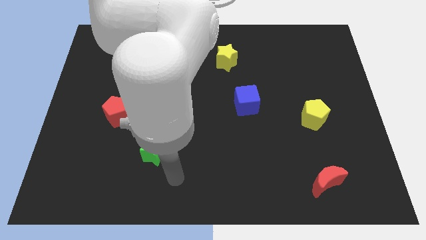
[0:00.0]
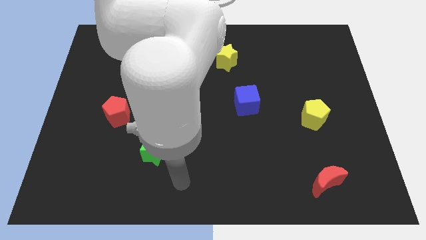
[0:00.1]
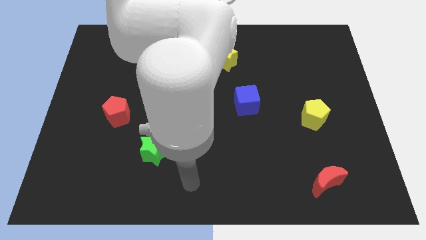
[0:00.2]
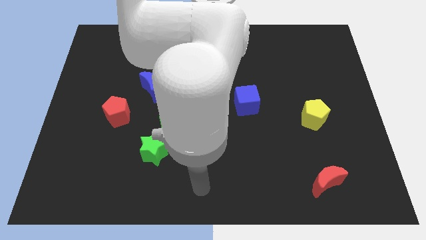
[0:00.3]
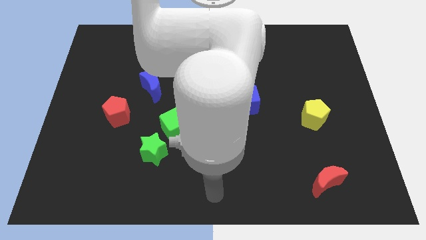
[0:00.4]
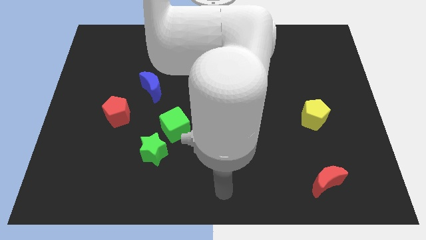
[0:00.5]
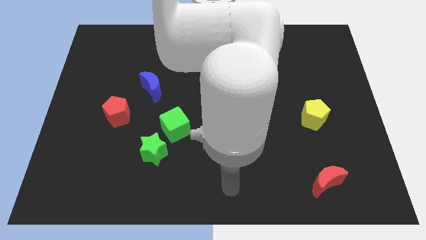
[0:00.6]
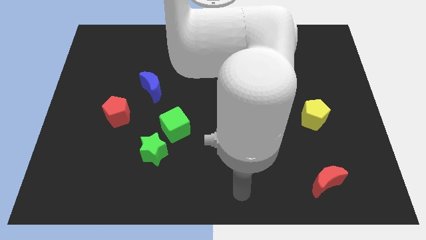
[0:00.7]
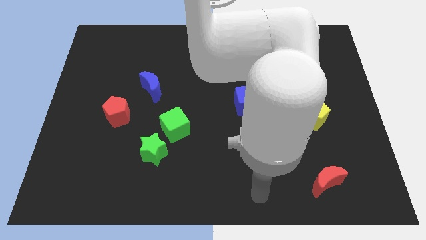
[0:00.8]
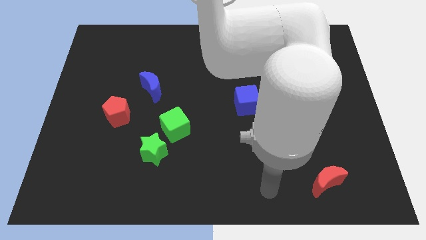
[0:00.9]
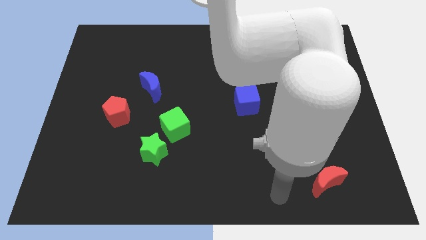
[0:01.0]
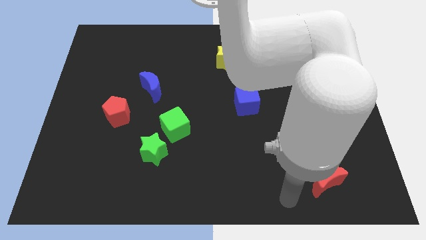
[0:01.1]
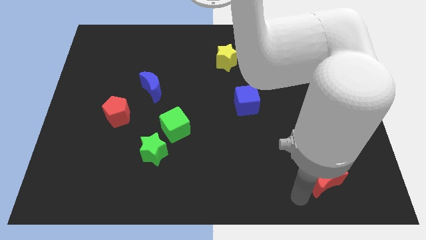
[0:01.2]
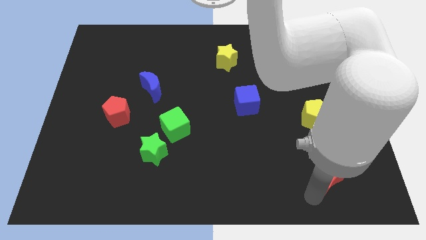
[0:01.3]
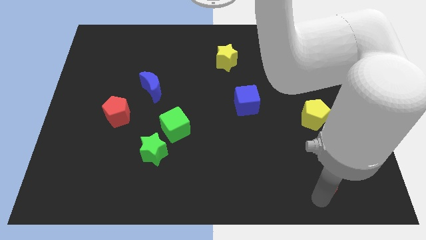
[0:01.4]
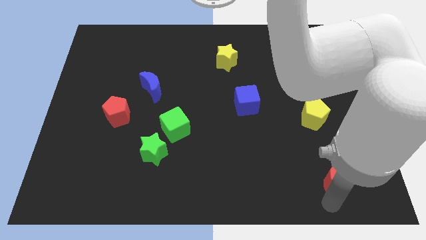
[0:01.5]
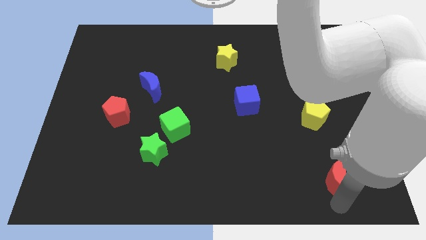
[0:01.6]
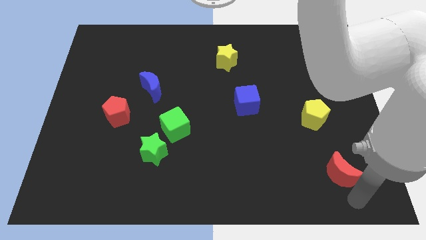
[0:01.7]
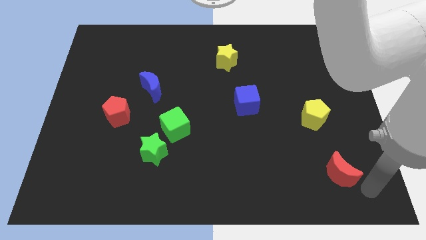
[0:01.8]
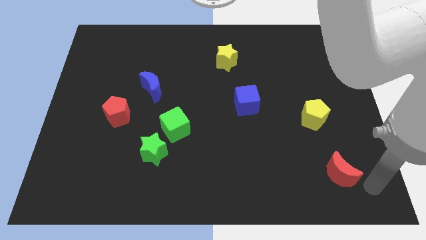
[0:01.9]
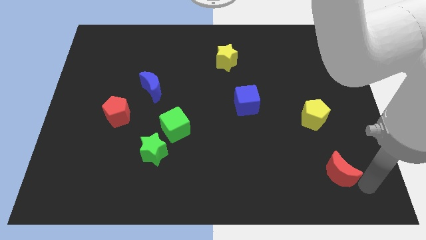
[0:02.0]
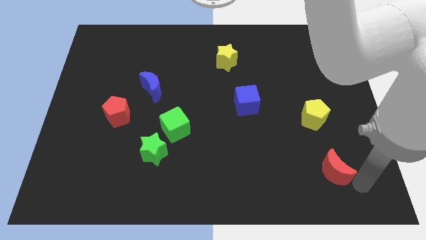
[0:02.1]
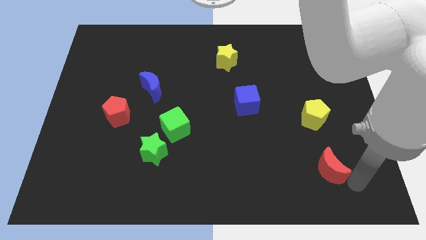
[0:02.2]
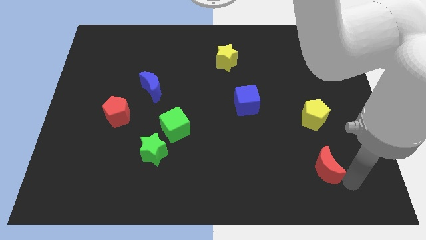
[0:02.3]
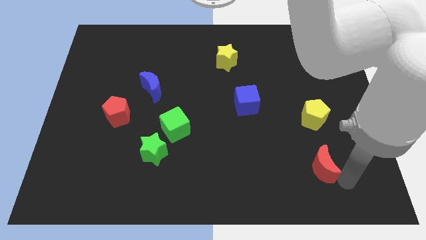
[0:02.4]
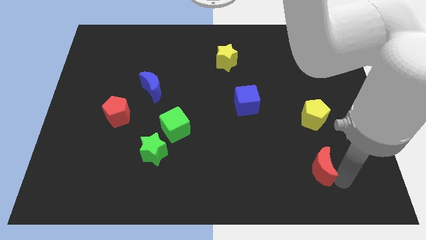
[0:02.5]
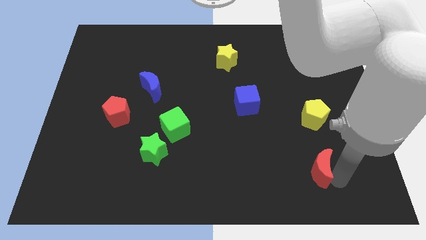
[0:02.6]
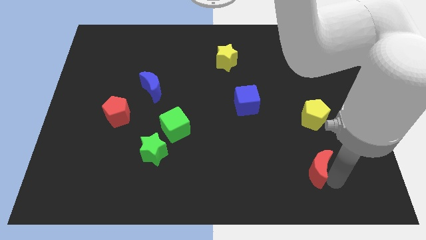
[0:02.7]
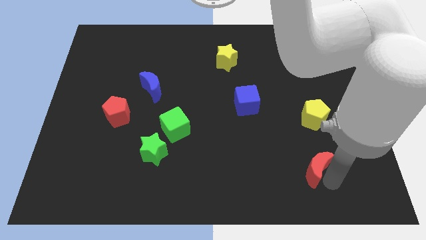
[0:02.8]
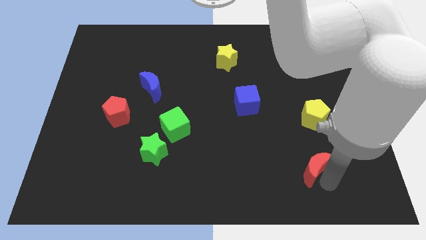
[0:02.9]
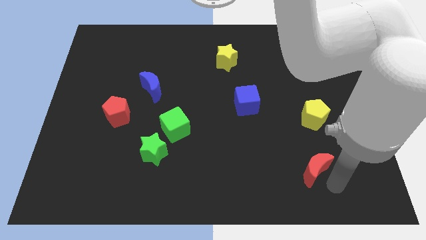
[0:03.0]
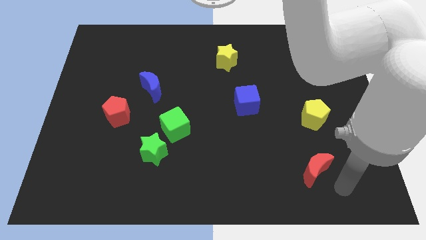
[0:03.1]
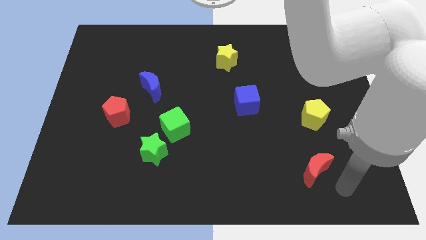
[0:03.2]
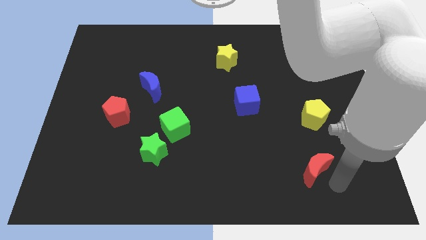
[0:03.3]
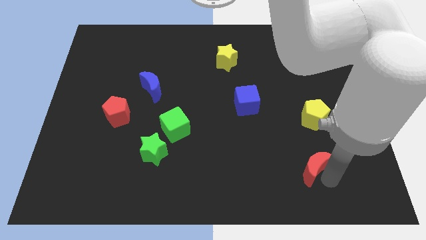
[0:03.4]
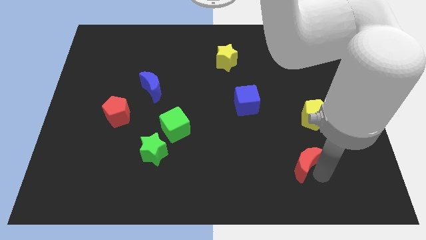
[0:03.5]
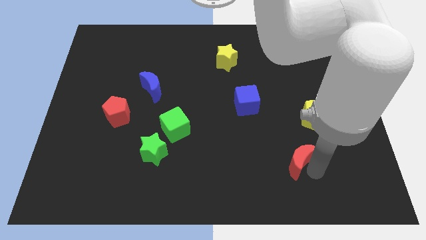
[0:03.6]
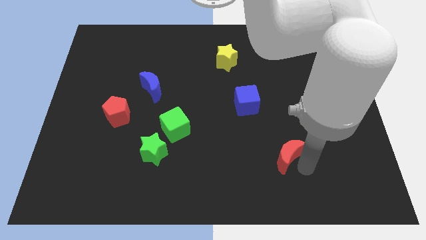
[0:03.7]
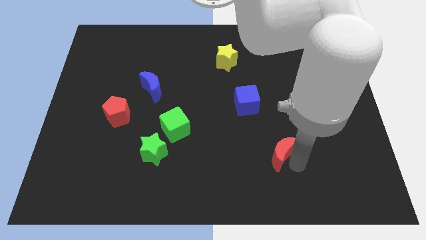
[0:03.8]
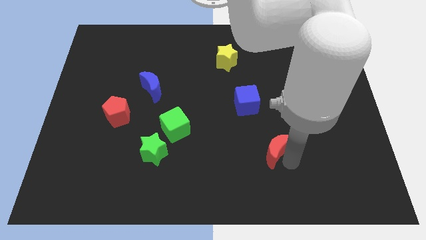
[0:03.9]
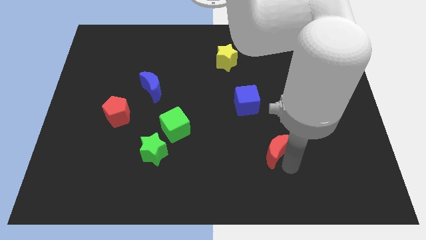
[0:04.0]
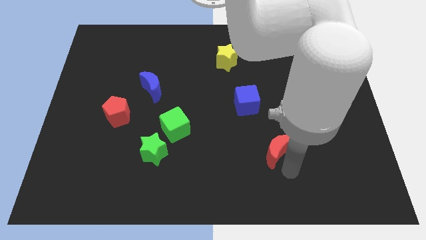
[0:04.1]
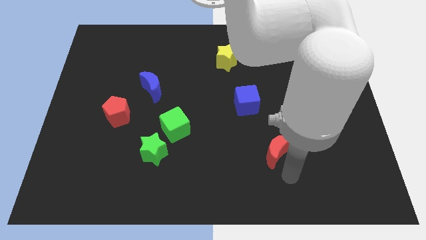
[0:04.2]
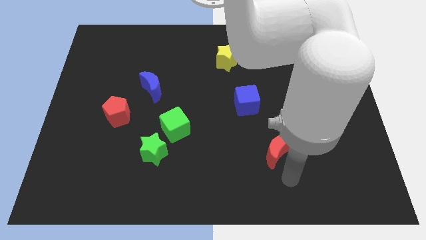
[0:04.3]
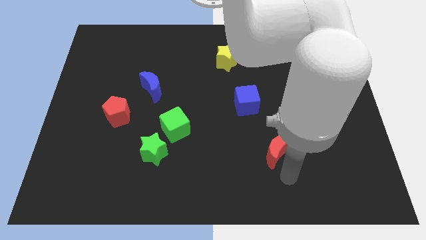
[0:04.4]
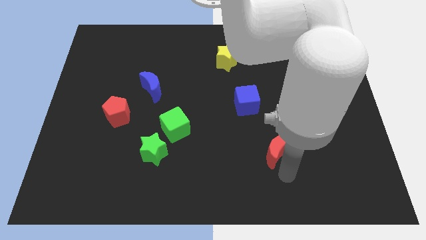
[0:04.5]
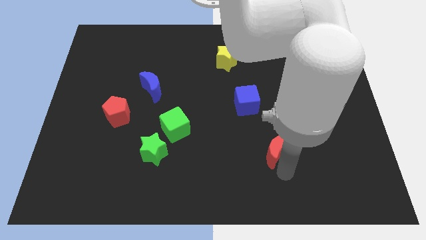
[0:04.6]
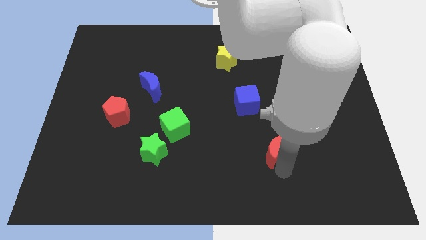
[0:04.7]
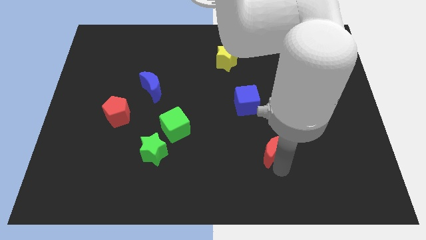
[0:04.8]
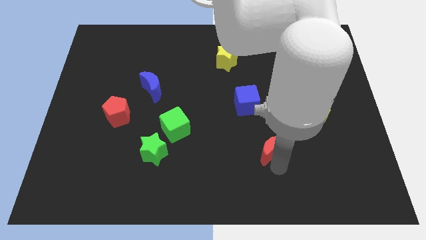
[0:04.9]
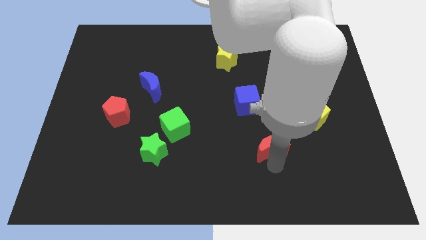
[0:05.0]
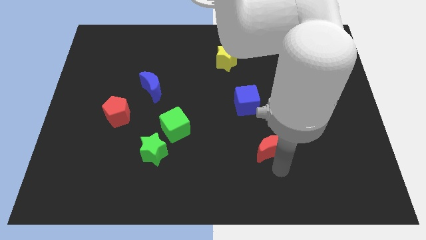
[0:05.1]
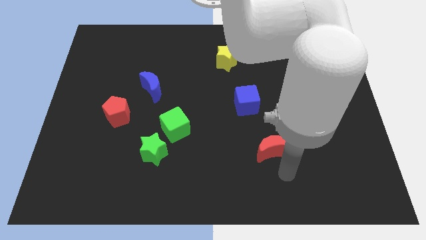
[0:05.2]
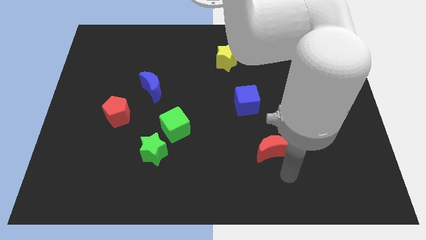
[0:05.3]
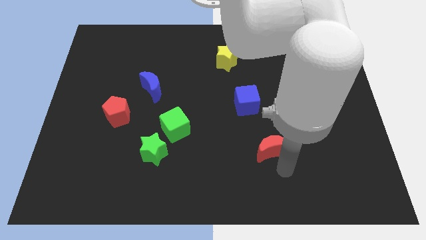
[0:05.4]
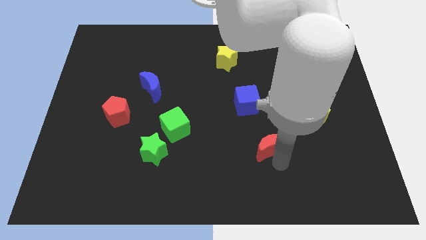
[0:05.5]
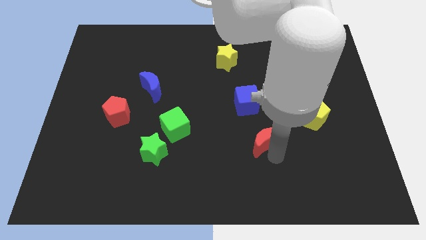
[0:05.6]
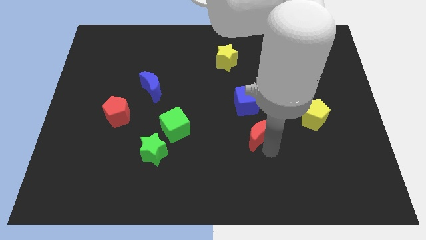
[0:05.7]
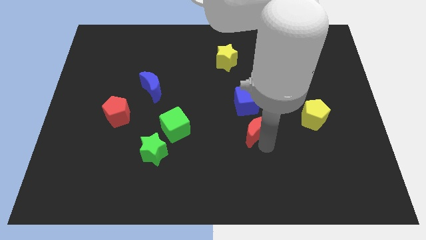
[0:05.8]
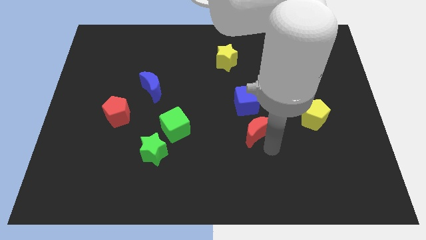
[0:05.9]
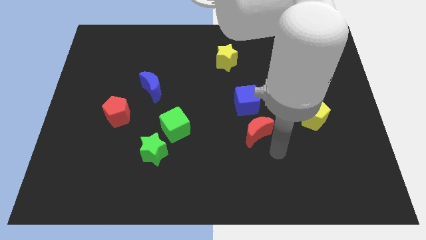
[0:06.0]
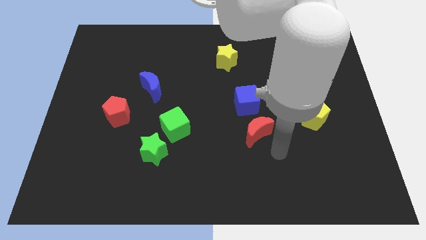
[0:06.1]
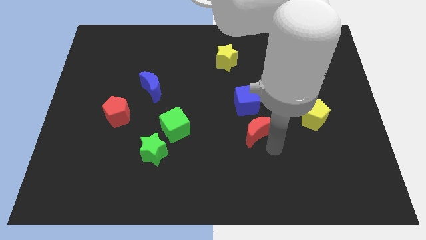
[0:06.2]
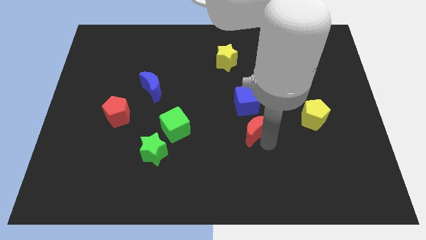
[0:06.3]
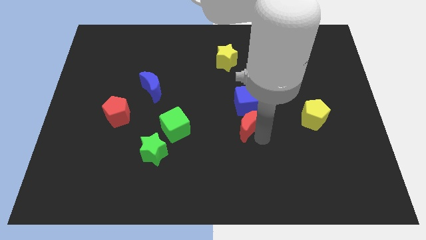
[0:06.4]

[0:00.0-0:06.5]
push the red moon diagonally up and to the left

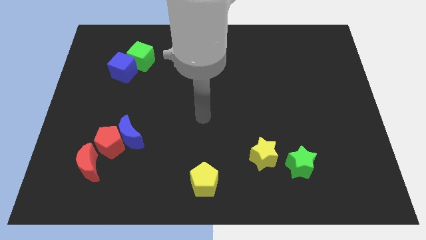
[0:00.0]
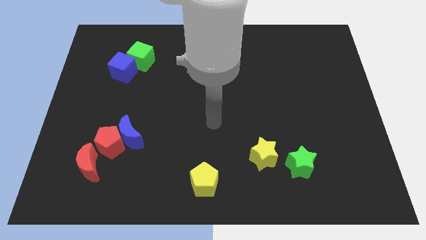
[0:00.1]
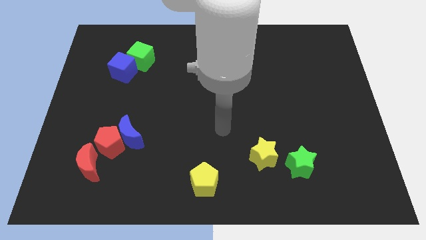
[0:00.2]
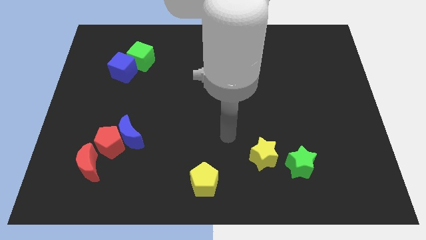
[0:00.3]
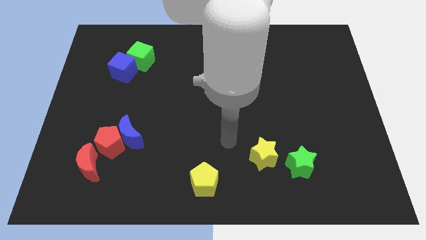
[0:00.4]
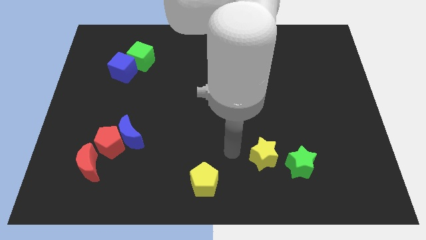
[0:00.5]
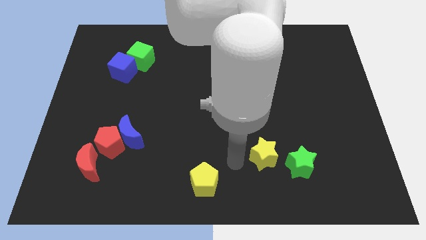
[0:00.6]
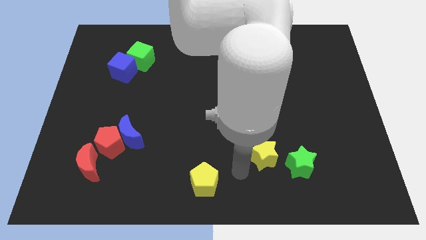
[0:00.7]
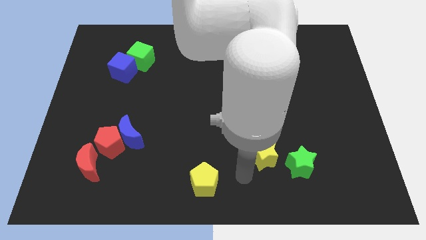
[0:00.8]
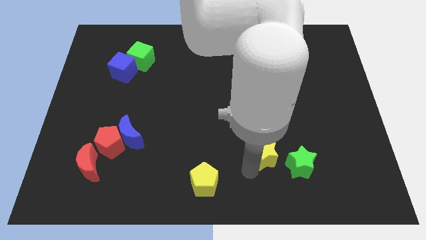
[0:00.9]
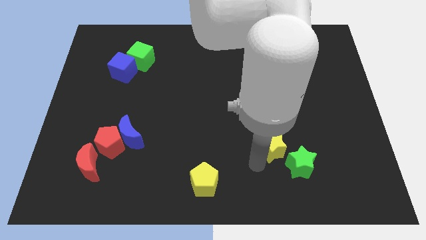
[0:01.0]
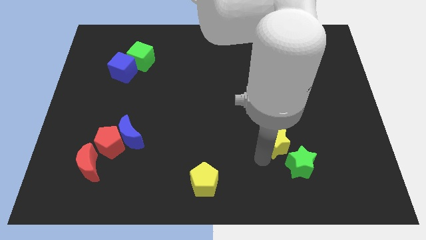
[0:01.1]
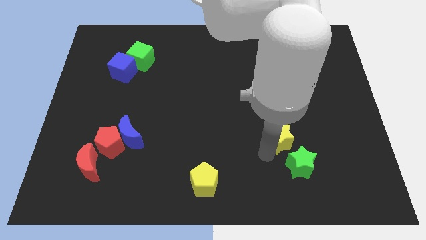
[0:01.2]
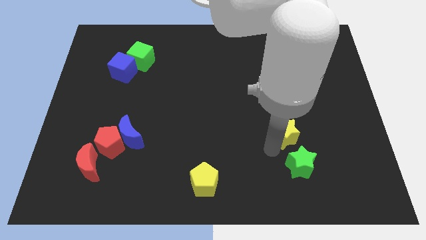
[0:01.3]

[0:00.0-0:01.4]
slightly push the yellow star diagonally up and to the right
